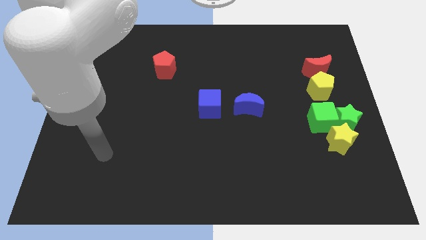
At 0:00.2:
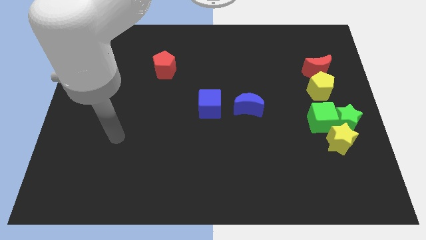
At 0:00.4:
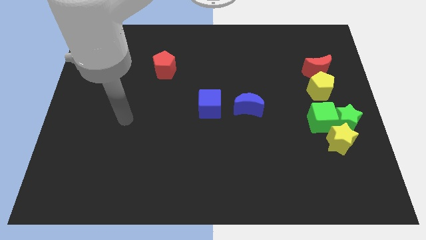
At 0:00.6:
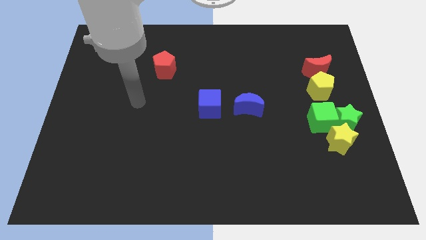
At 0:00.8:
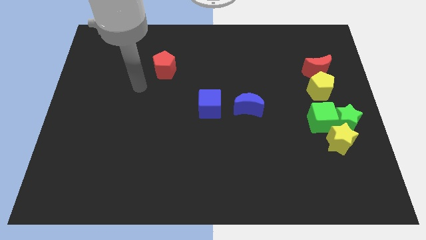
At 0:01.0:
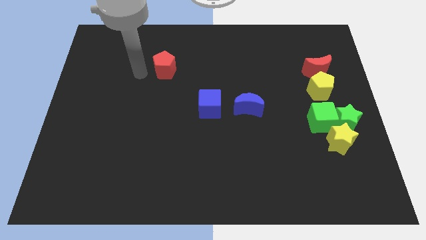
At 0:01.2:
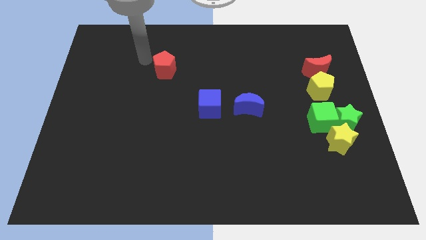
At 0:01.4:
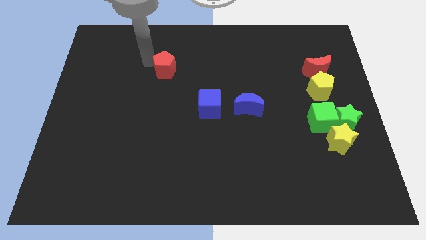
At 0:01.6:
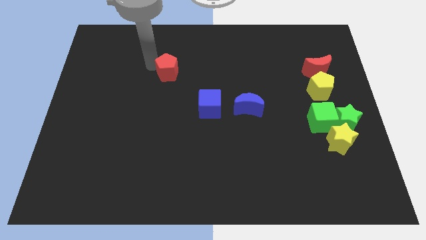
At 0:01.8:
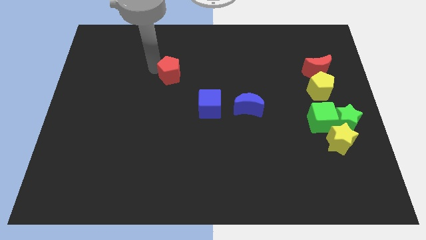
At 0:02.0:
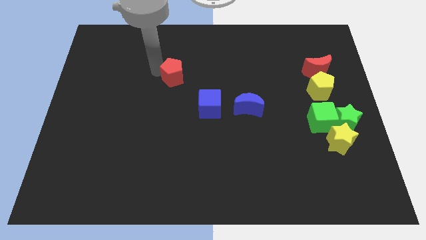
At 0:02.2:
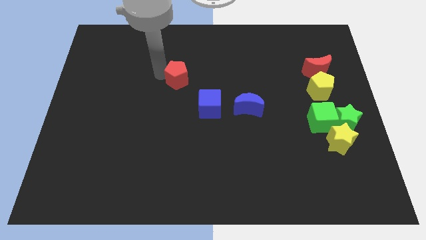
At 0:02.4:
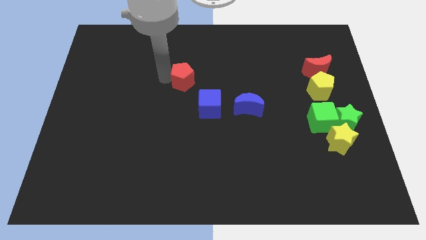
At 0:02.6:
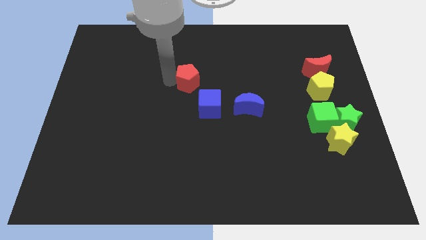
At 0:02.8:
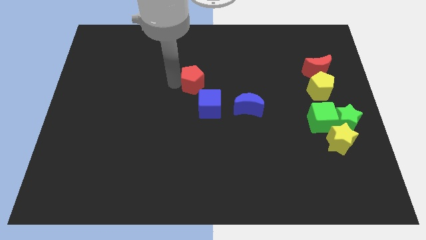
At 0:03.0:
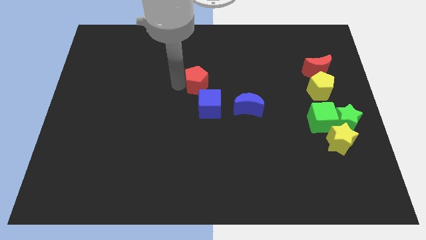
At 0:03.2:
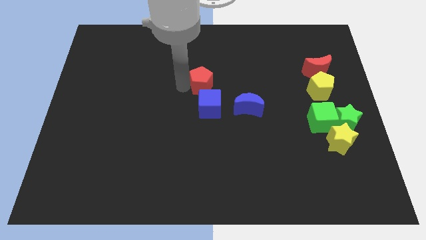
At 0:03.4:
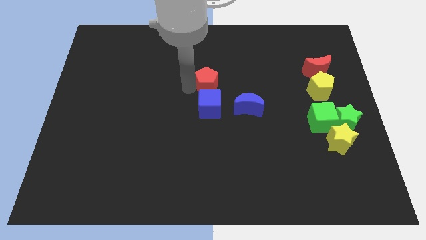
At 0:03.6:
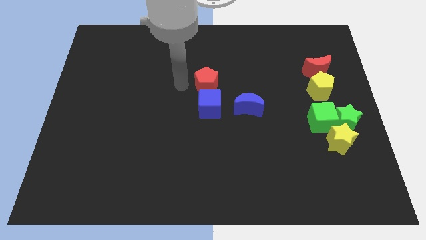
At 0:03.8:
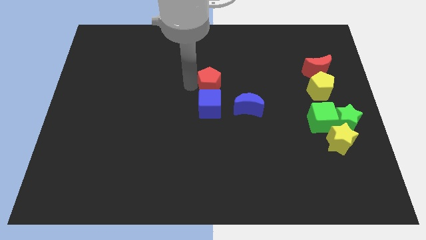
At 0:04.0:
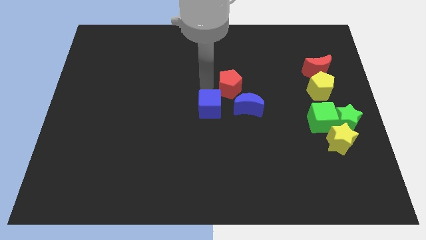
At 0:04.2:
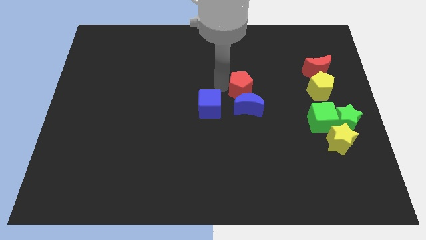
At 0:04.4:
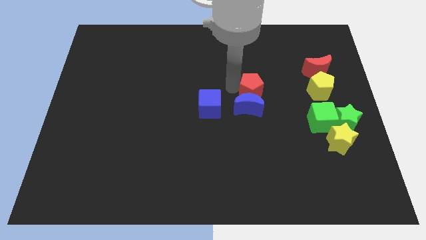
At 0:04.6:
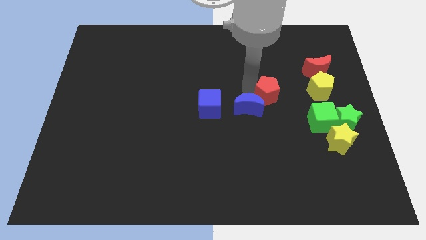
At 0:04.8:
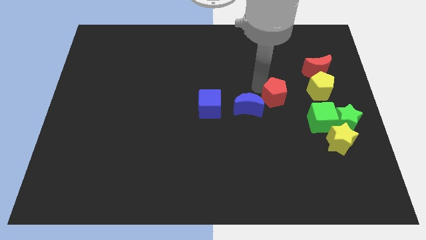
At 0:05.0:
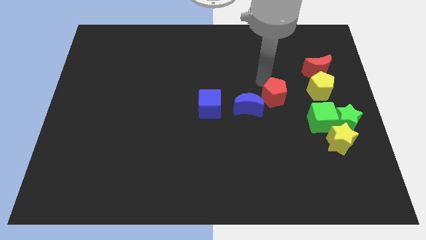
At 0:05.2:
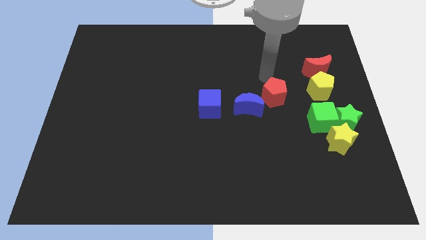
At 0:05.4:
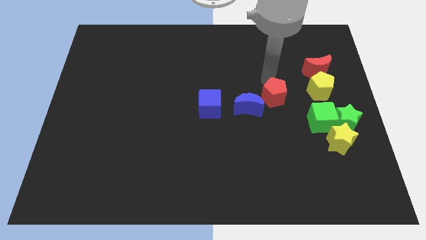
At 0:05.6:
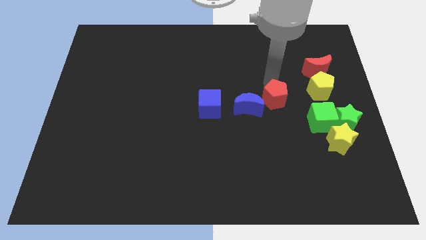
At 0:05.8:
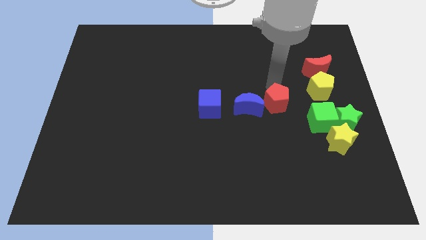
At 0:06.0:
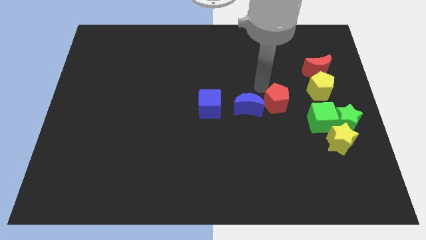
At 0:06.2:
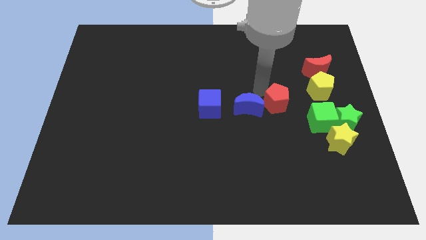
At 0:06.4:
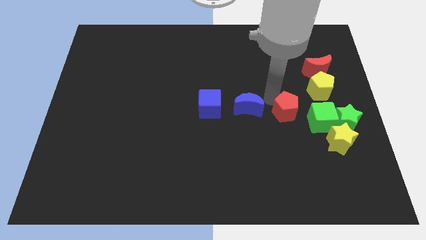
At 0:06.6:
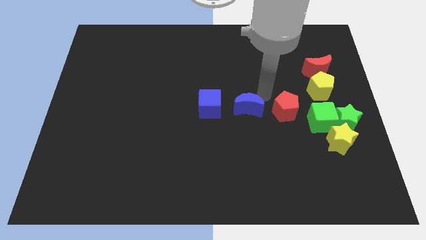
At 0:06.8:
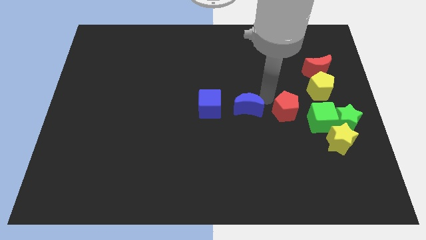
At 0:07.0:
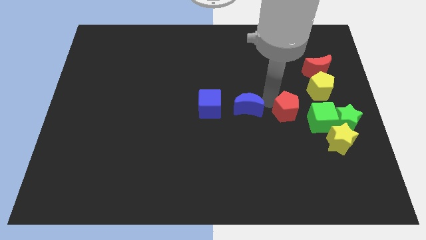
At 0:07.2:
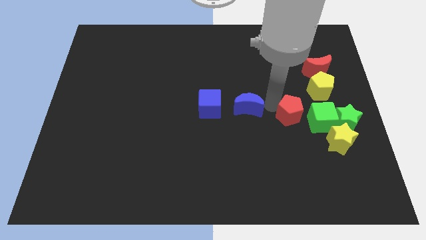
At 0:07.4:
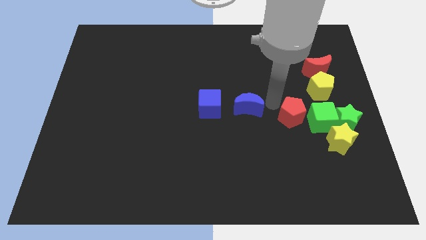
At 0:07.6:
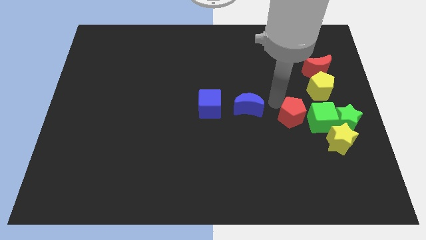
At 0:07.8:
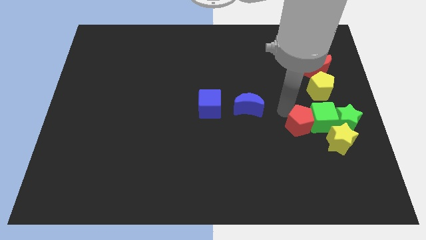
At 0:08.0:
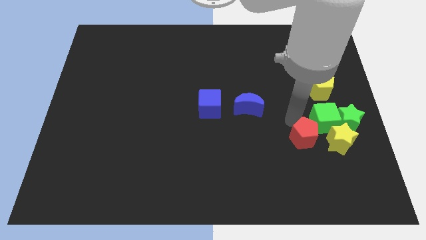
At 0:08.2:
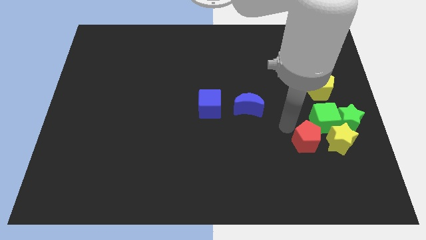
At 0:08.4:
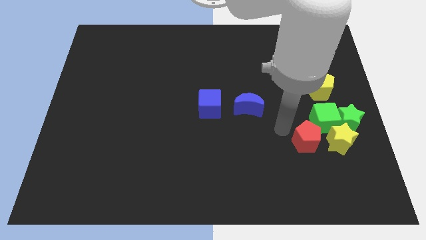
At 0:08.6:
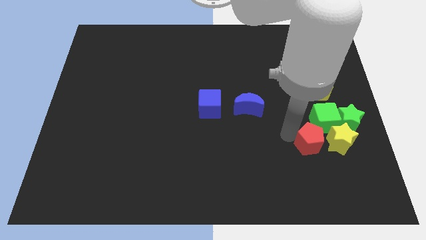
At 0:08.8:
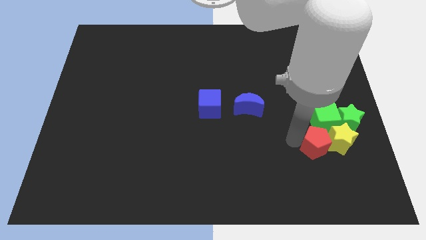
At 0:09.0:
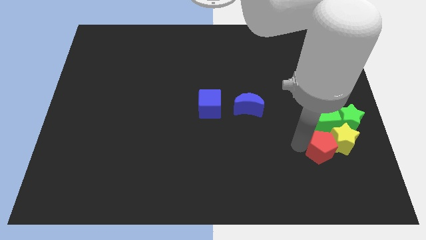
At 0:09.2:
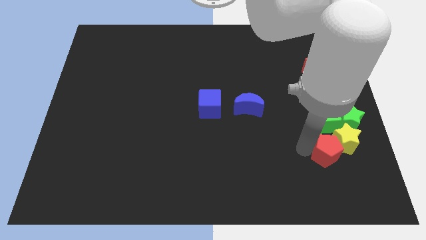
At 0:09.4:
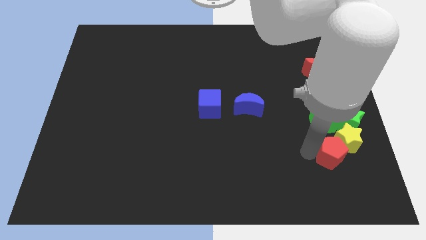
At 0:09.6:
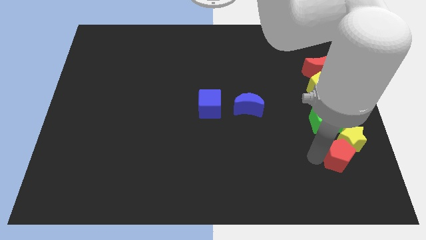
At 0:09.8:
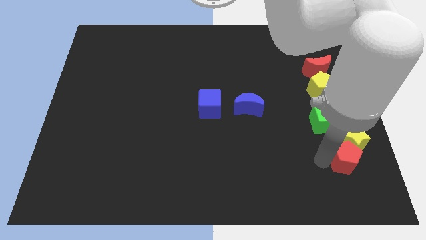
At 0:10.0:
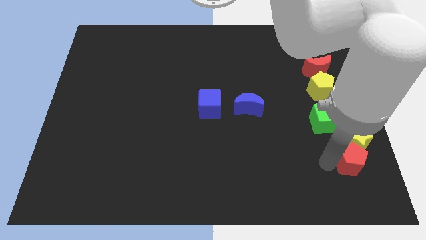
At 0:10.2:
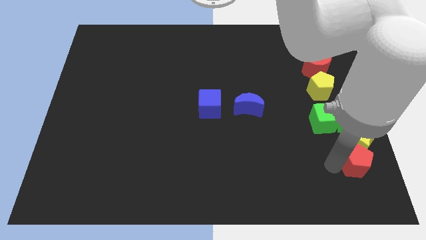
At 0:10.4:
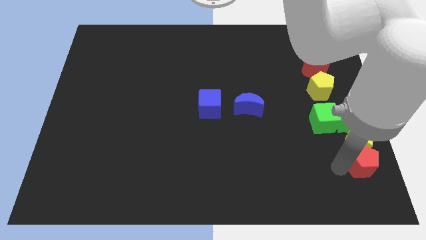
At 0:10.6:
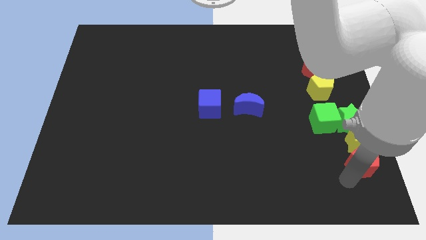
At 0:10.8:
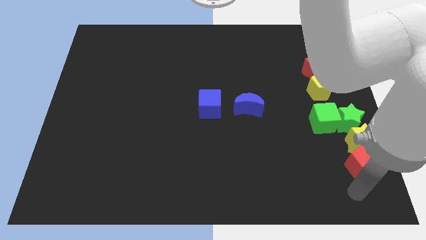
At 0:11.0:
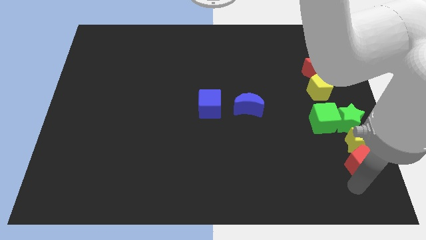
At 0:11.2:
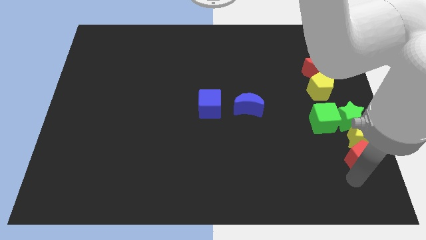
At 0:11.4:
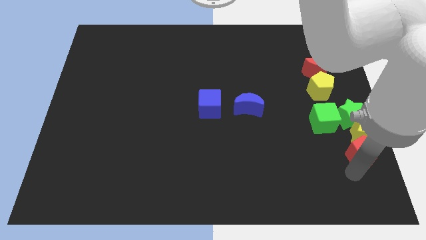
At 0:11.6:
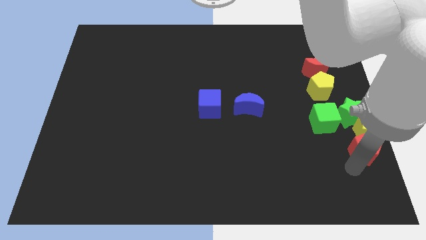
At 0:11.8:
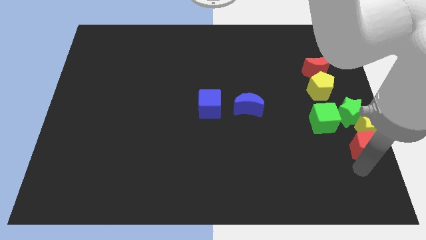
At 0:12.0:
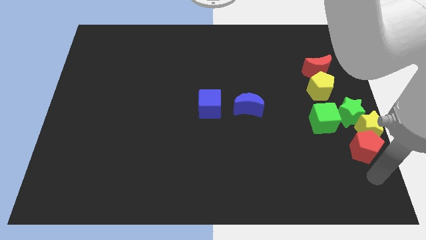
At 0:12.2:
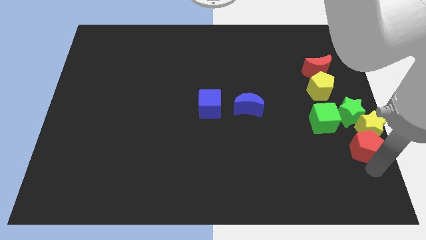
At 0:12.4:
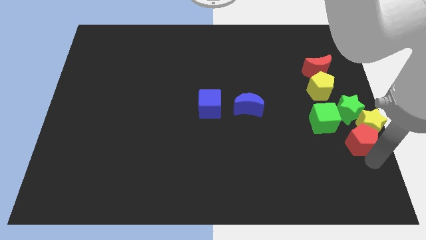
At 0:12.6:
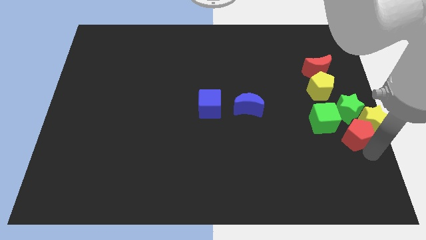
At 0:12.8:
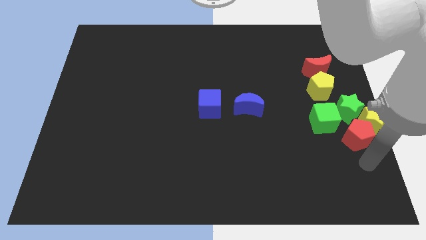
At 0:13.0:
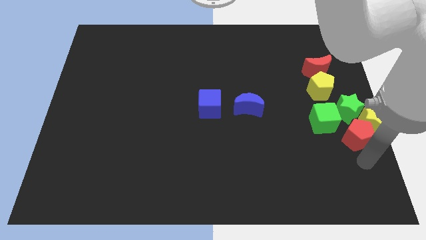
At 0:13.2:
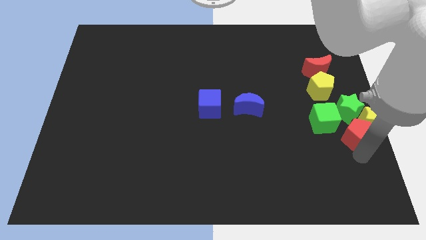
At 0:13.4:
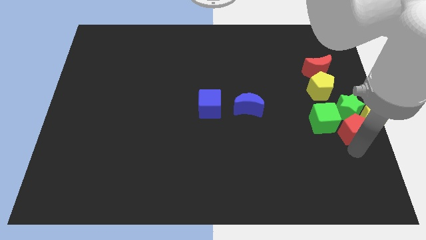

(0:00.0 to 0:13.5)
push the red pentagon close to the green star

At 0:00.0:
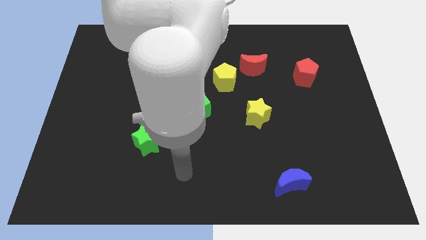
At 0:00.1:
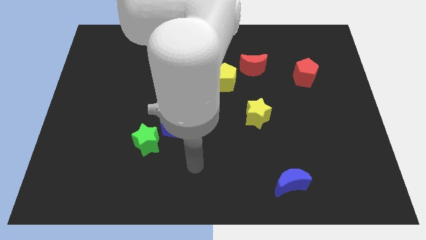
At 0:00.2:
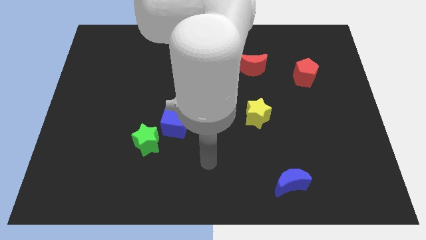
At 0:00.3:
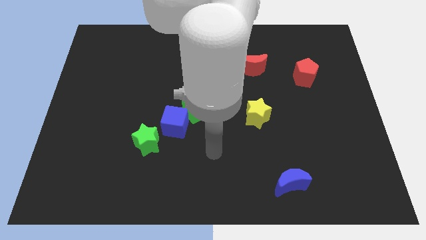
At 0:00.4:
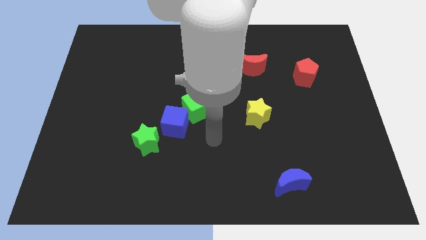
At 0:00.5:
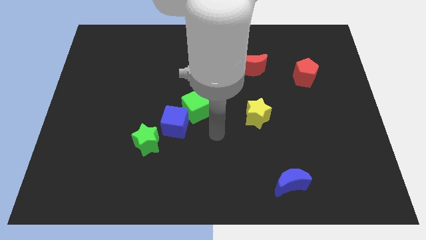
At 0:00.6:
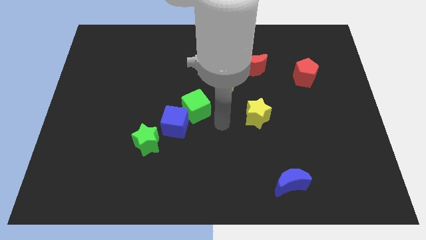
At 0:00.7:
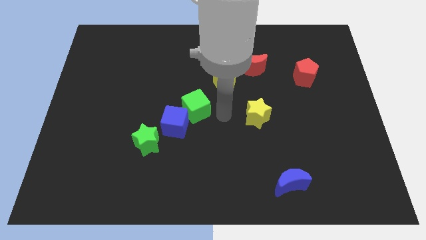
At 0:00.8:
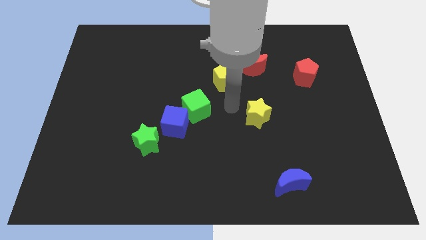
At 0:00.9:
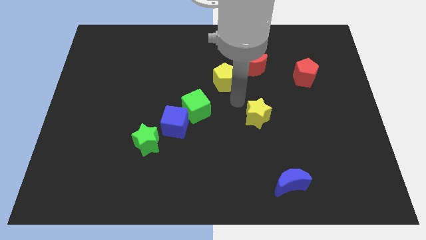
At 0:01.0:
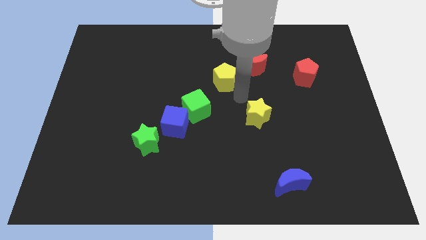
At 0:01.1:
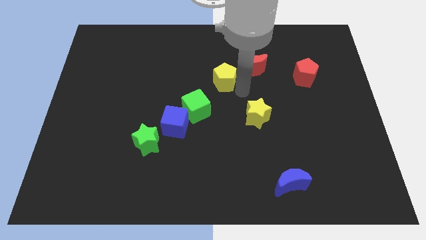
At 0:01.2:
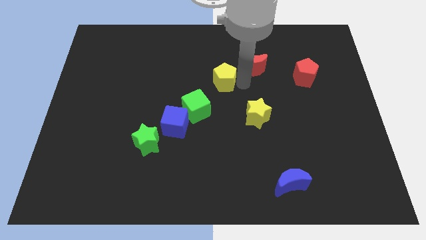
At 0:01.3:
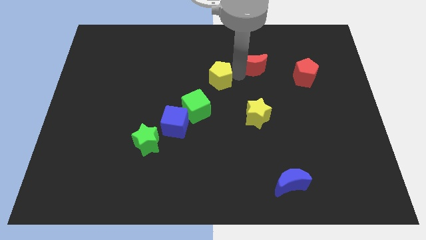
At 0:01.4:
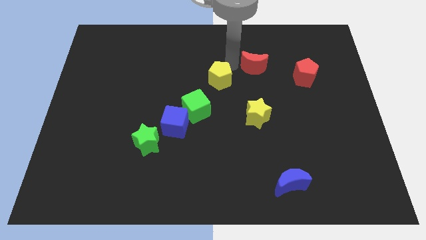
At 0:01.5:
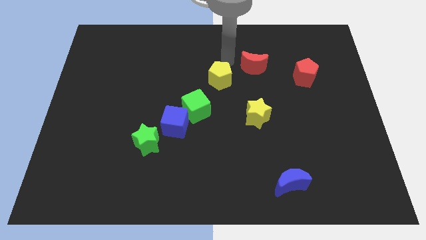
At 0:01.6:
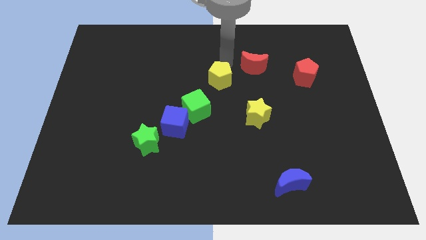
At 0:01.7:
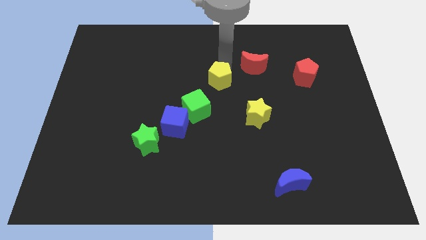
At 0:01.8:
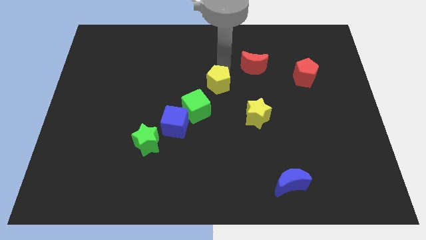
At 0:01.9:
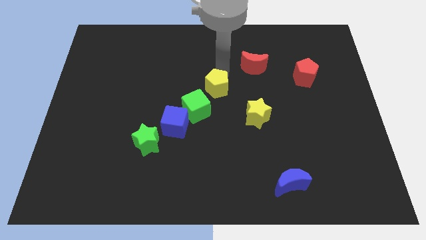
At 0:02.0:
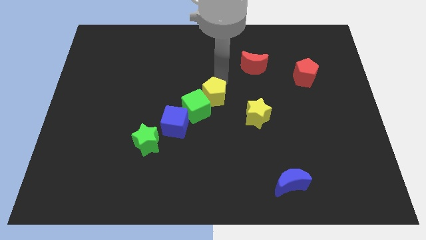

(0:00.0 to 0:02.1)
put the yellow pentagon next to the green cube
